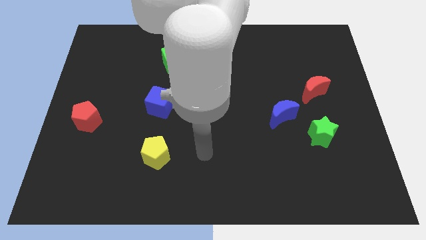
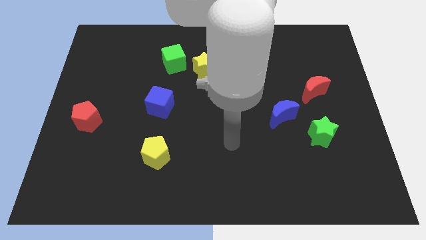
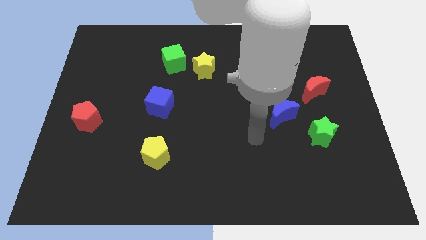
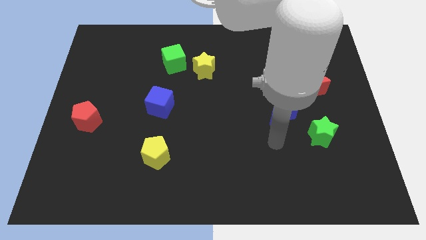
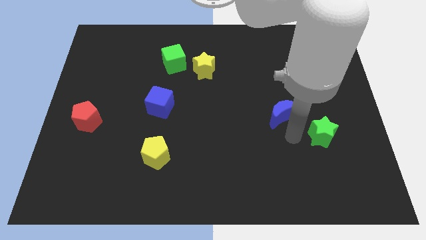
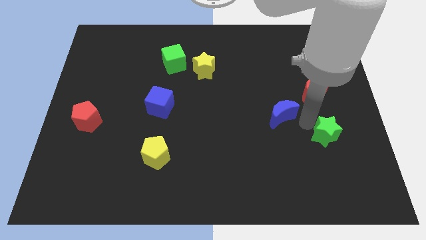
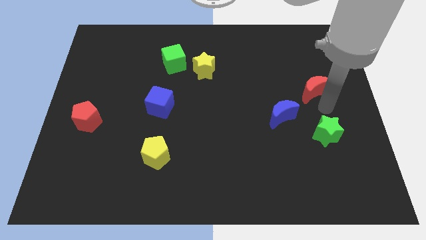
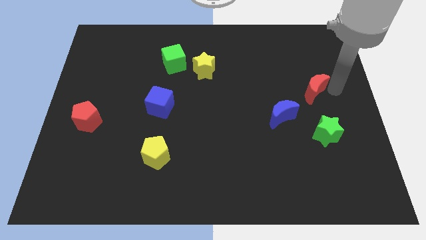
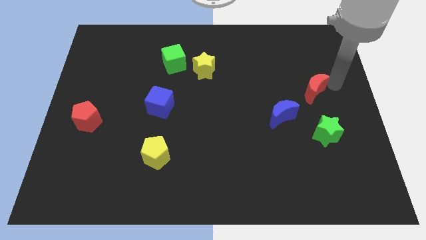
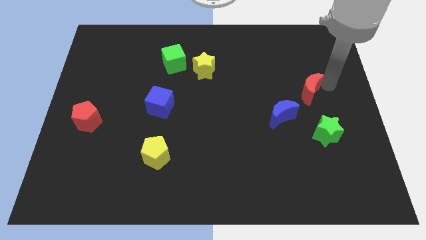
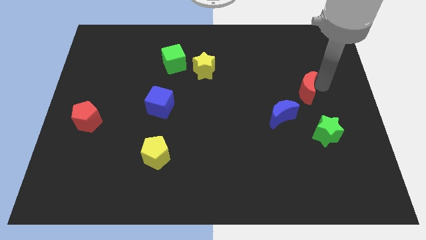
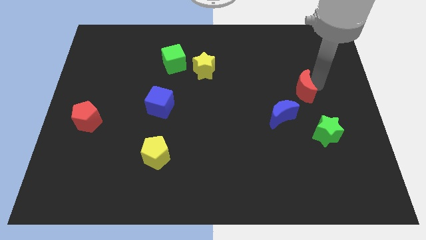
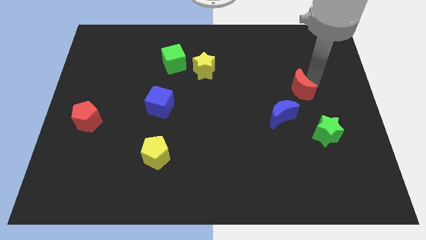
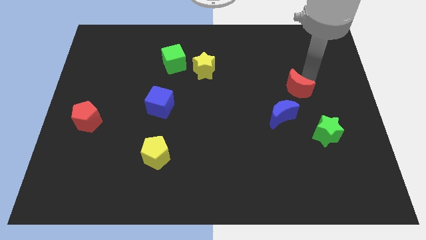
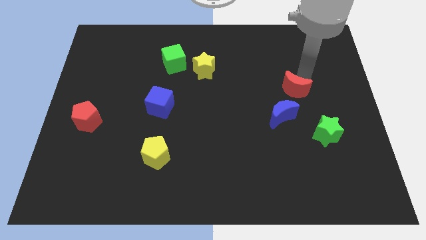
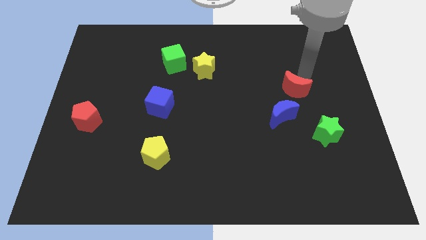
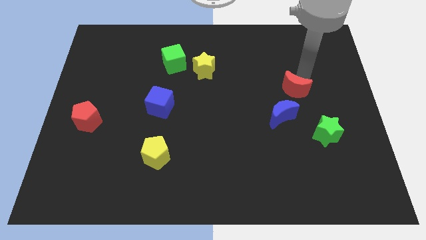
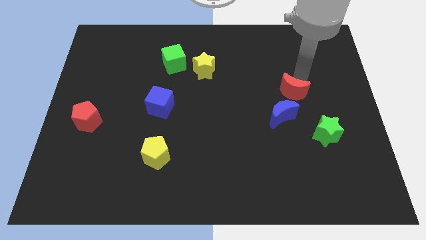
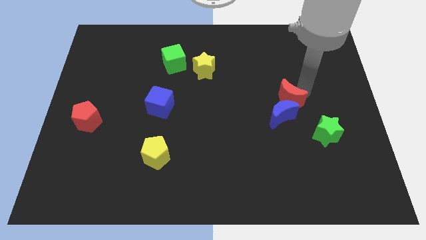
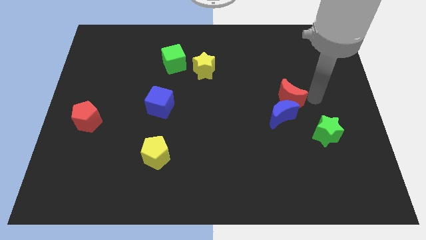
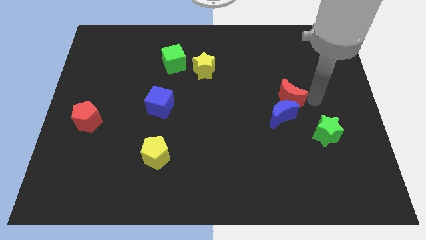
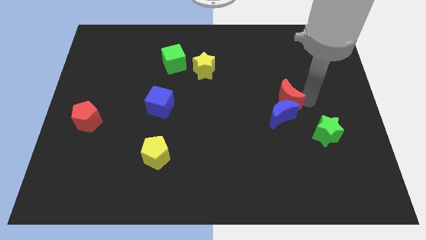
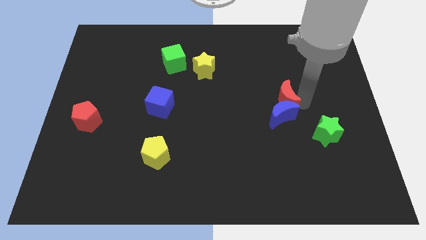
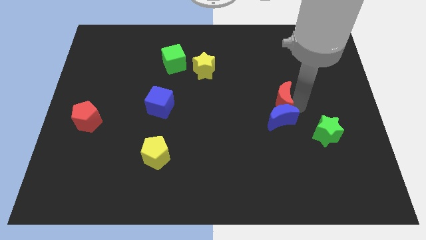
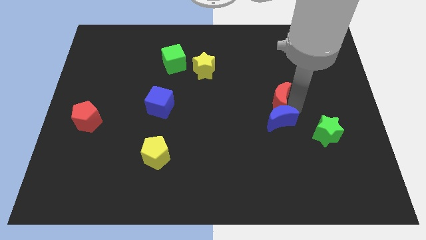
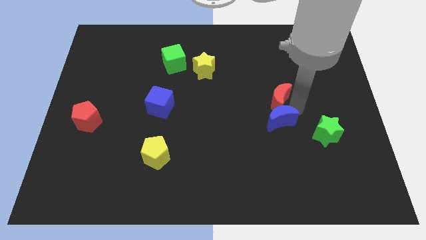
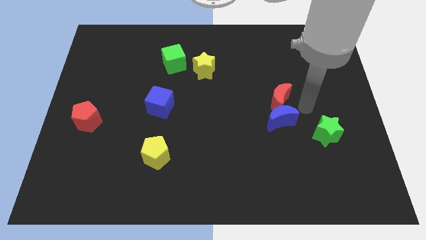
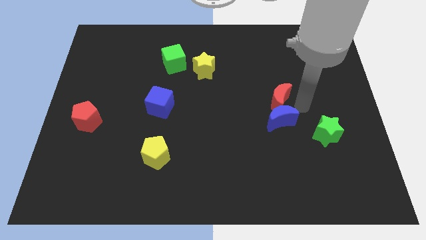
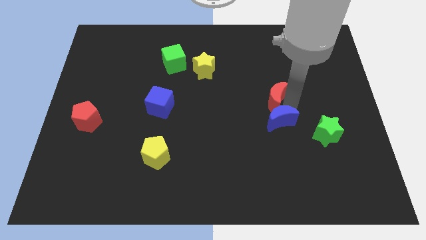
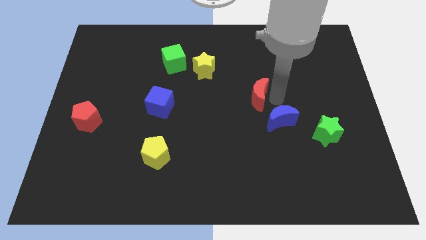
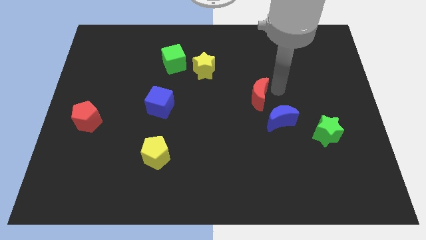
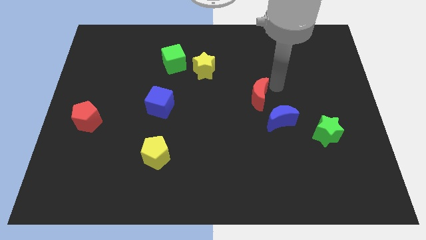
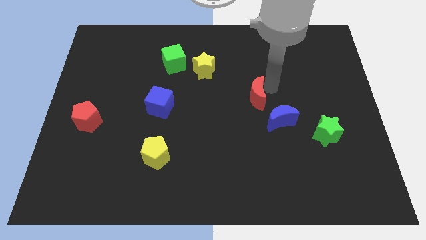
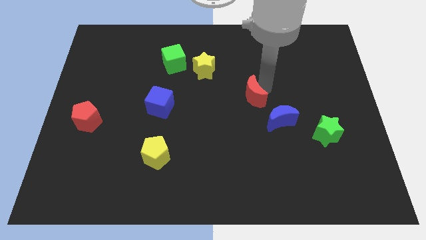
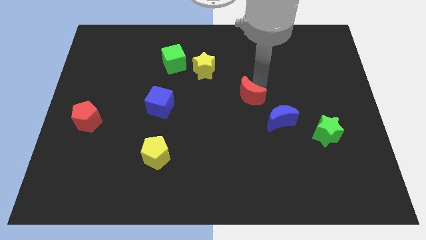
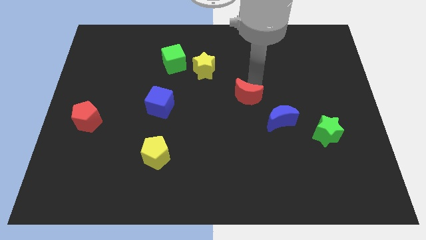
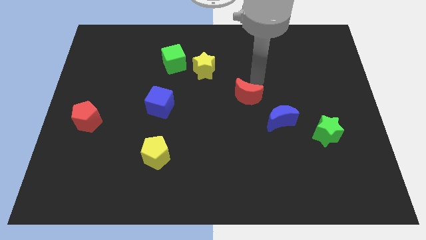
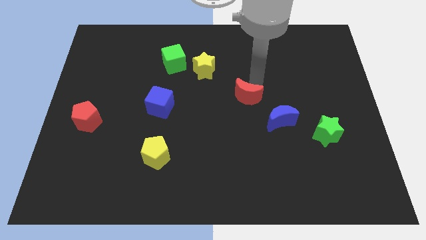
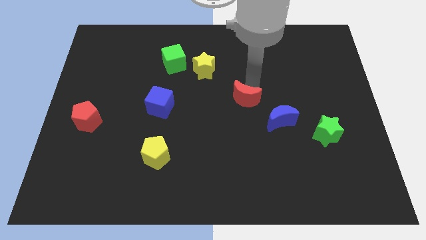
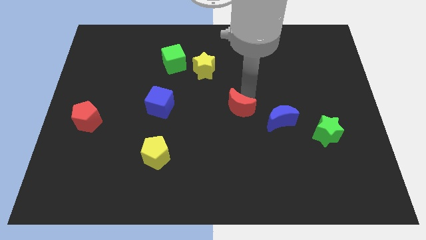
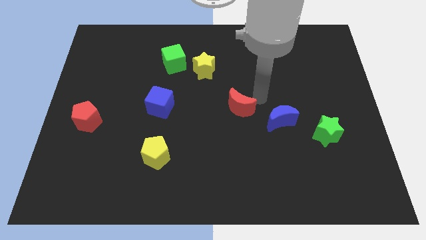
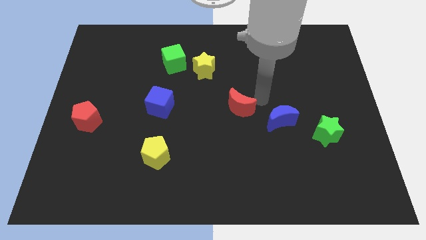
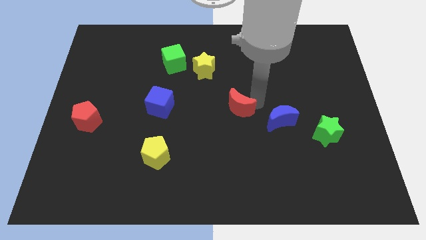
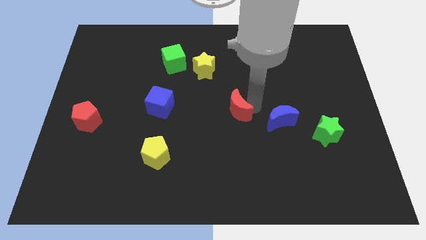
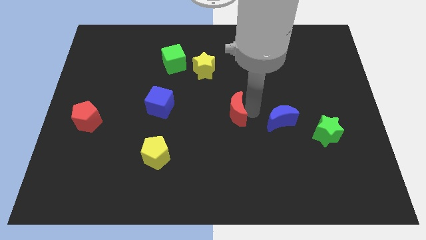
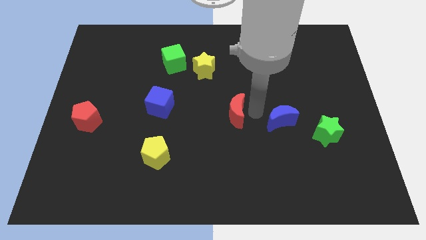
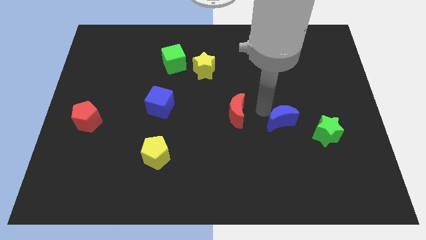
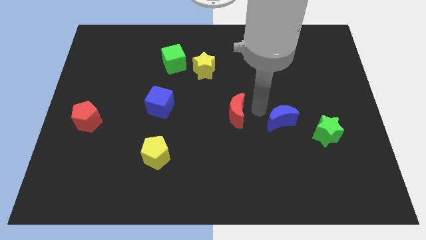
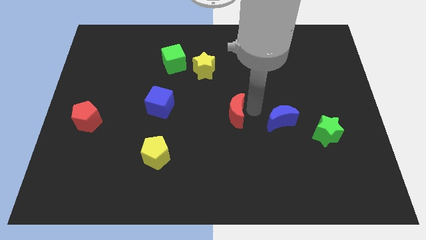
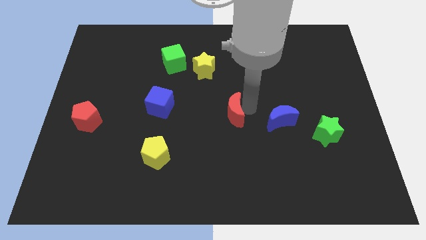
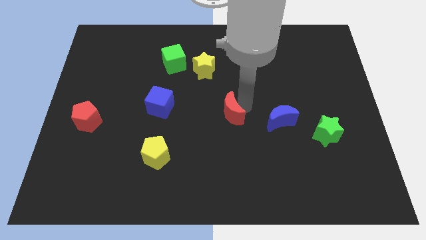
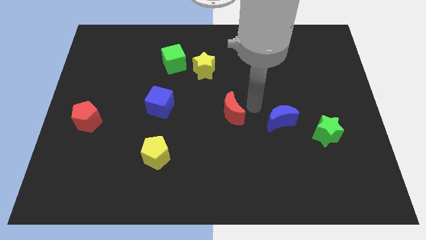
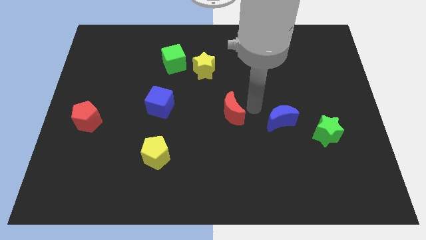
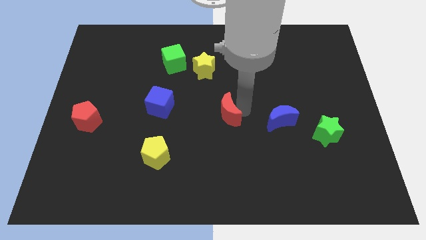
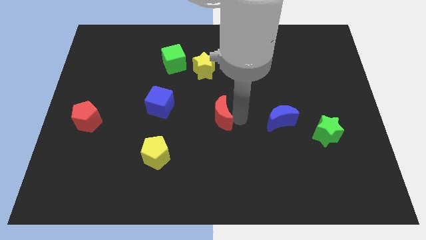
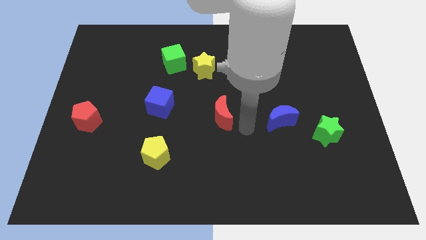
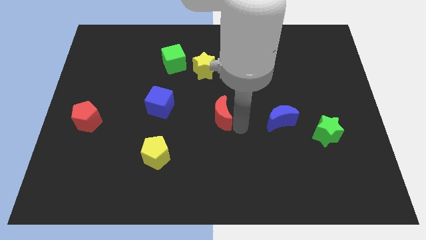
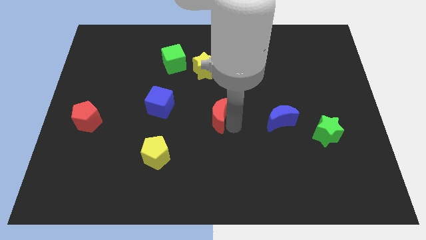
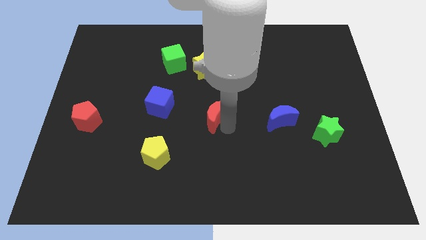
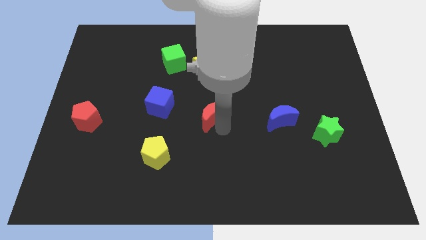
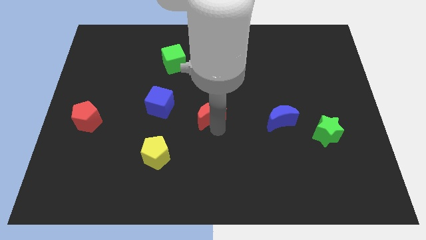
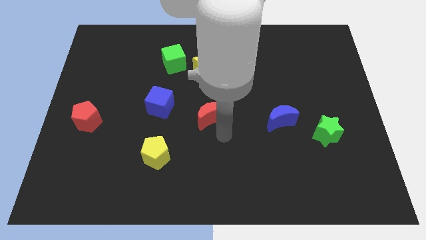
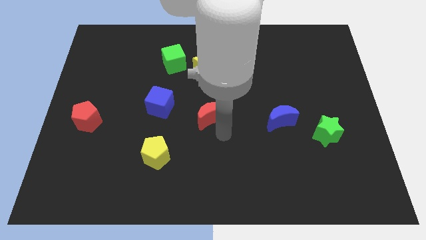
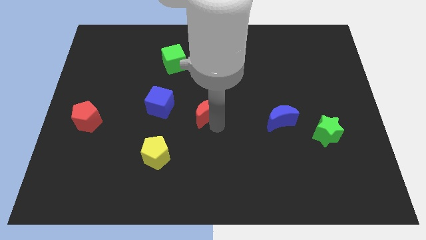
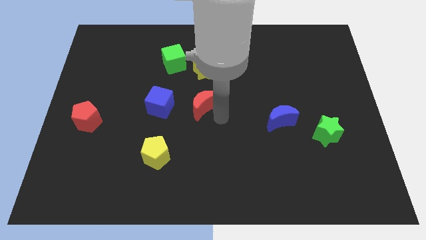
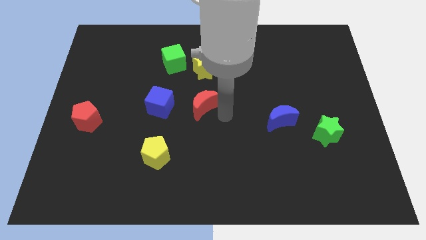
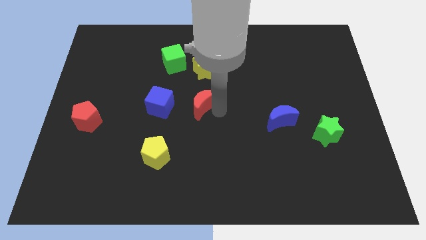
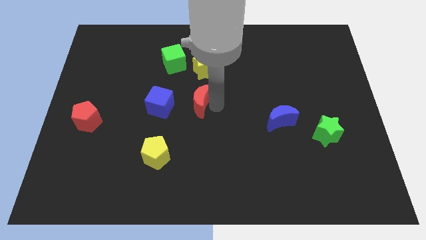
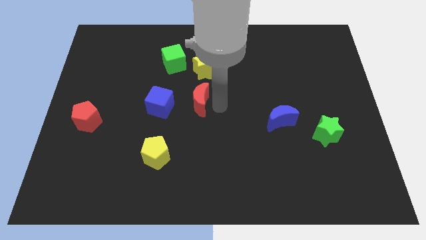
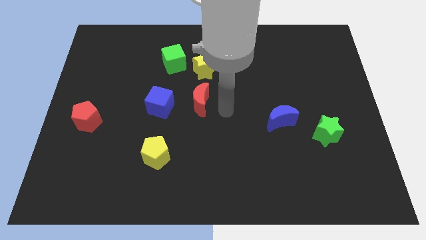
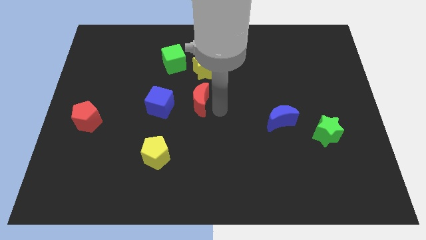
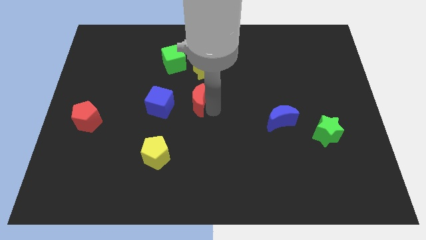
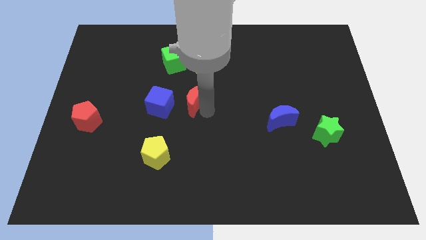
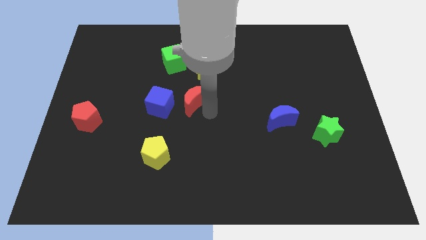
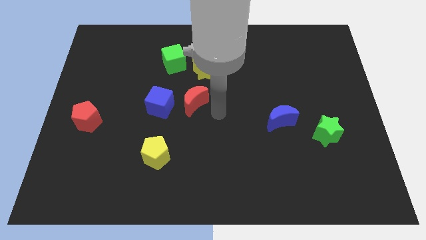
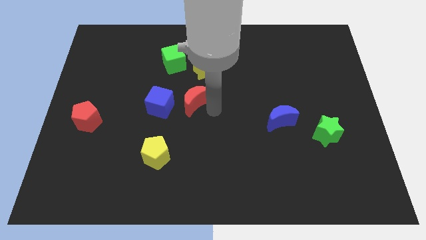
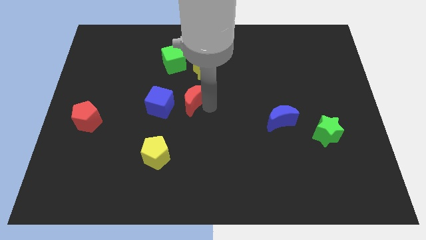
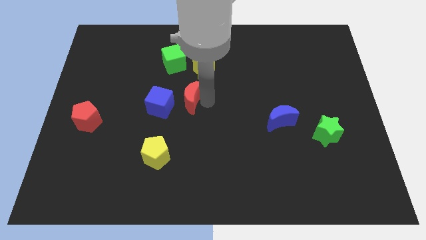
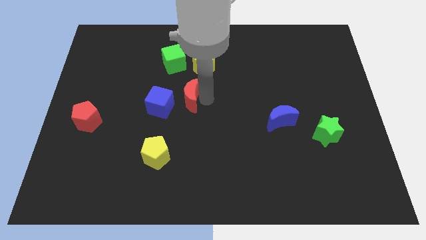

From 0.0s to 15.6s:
push the red moon below the green cube

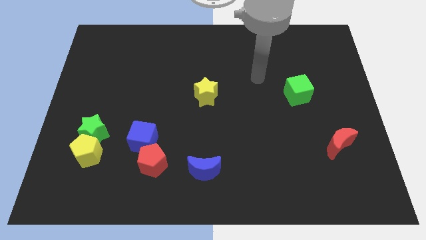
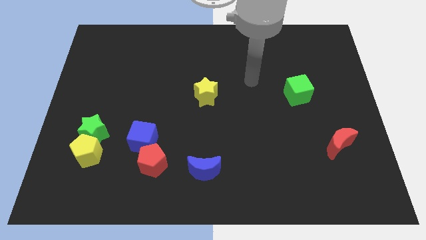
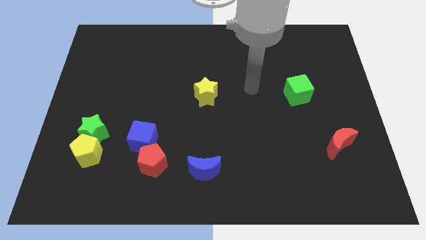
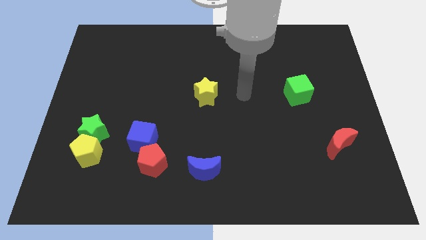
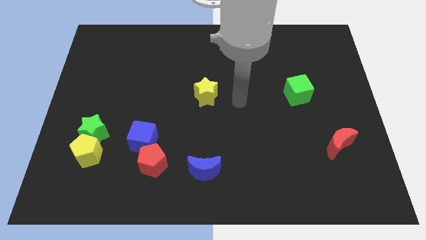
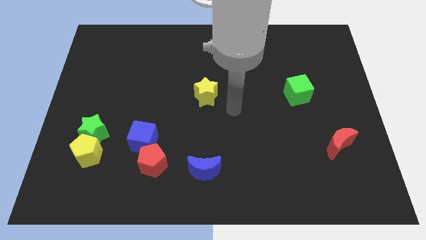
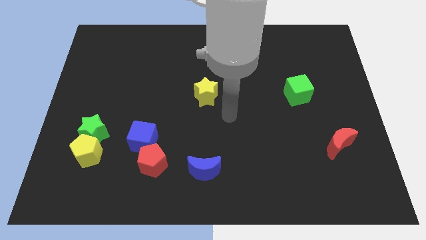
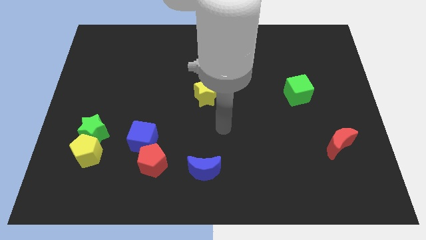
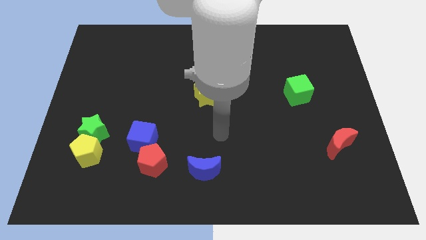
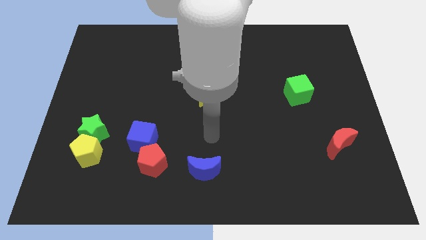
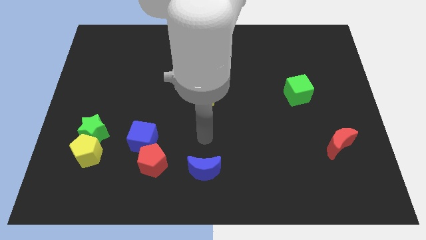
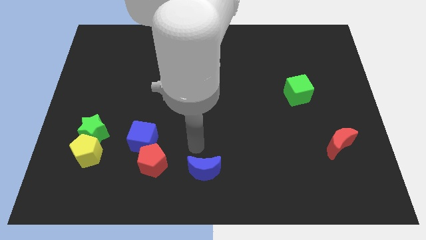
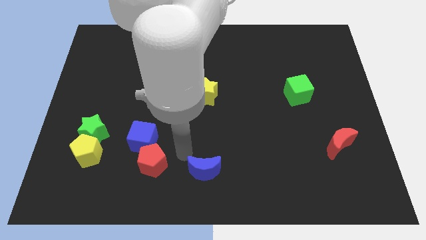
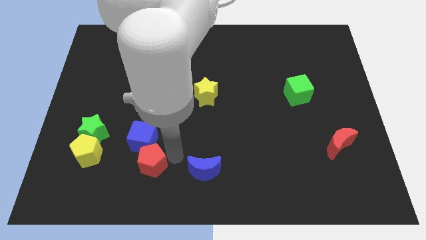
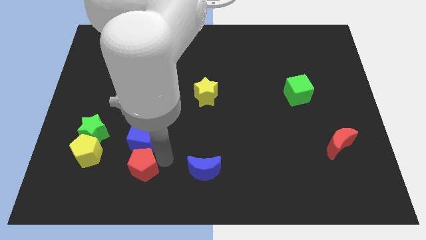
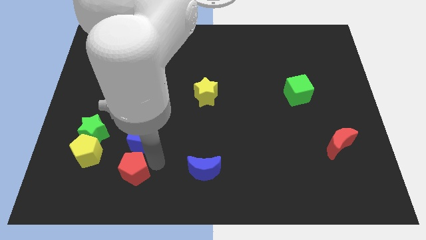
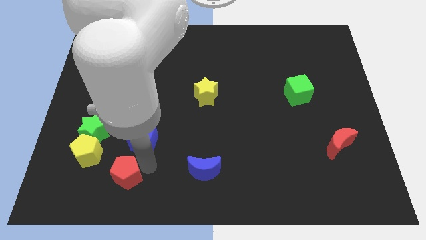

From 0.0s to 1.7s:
slide the red pentagon diagonally down and to the right of the yellow pentagon
